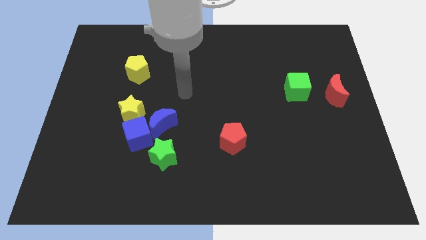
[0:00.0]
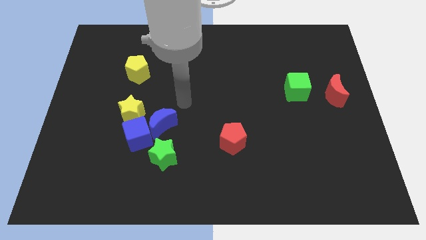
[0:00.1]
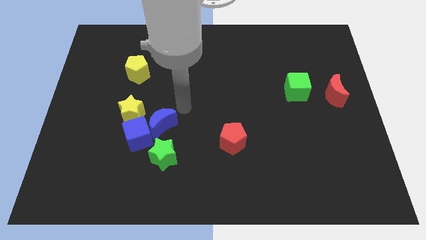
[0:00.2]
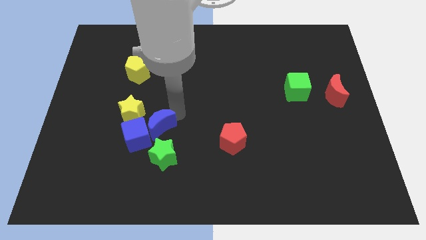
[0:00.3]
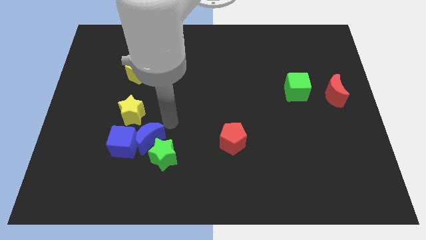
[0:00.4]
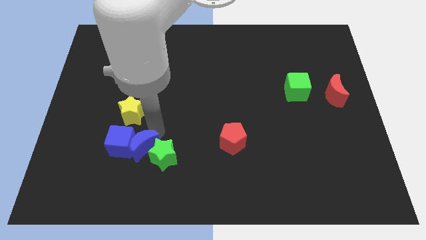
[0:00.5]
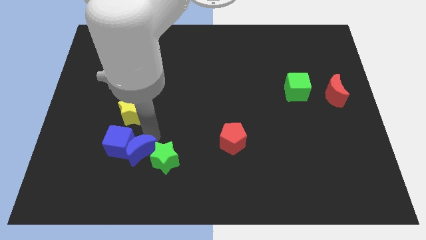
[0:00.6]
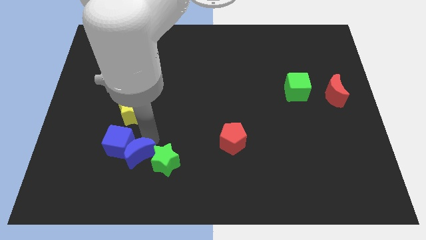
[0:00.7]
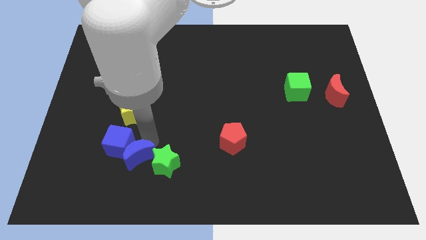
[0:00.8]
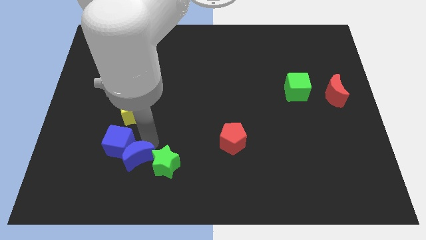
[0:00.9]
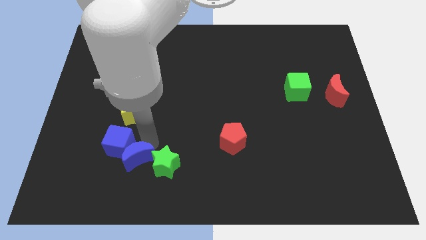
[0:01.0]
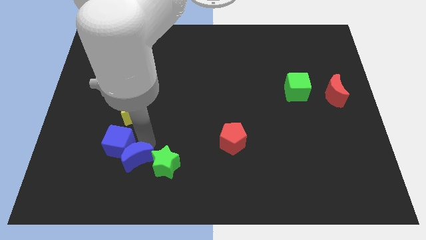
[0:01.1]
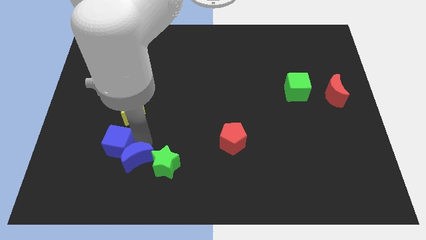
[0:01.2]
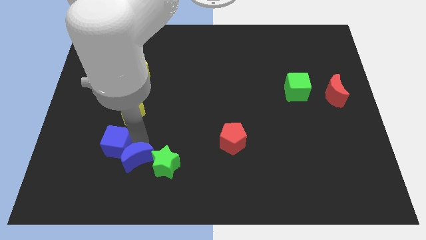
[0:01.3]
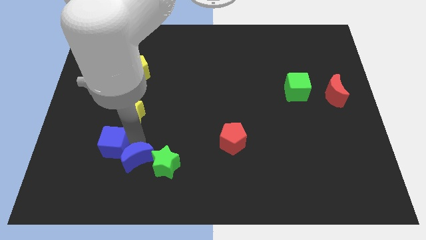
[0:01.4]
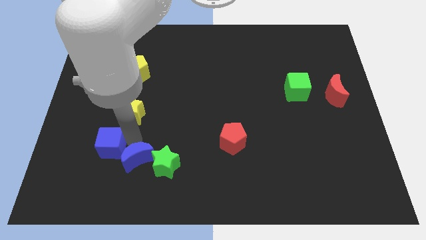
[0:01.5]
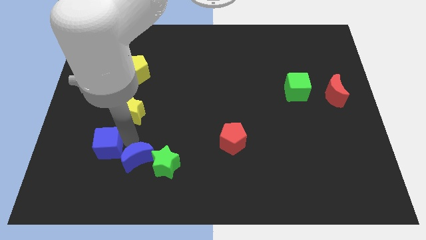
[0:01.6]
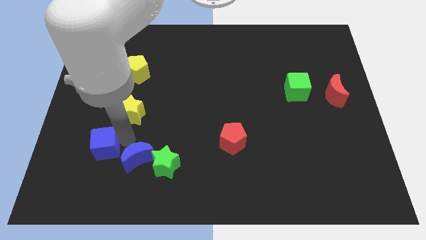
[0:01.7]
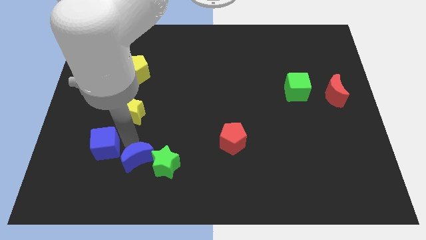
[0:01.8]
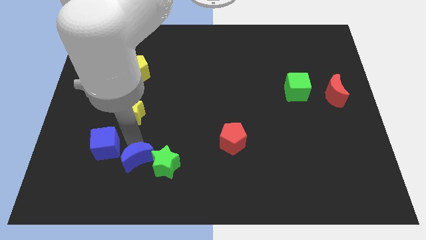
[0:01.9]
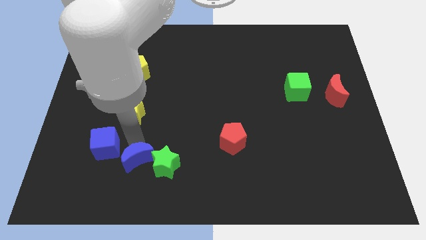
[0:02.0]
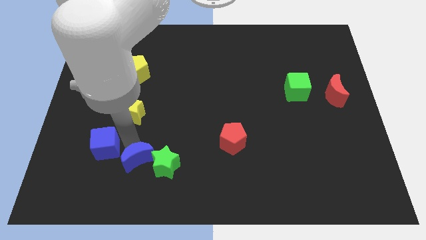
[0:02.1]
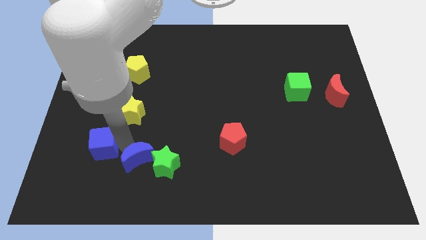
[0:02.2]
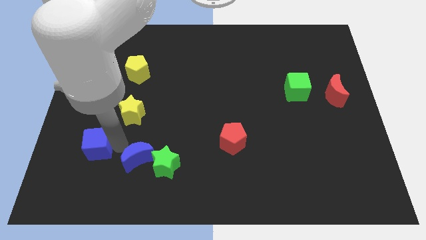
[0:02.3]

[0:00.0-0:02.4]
move the blue cube away from the clump

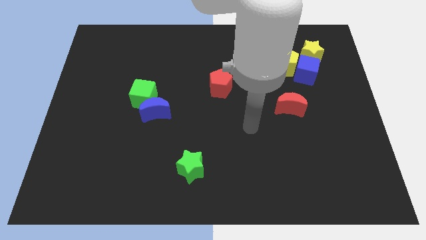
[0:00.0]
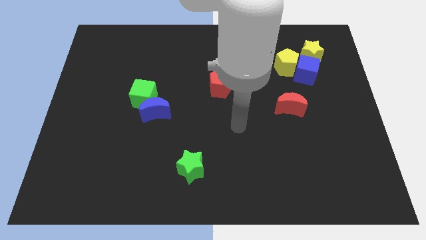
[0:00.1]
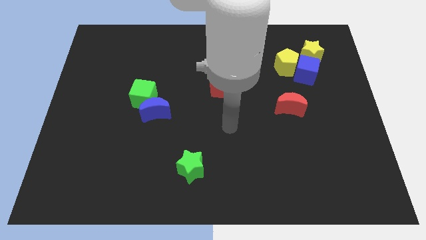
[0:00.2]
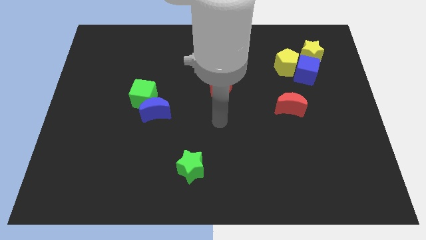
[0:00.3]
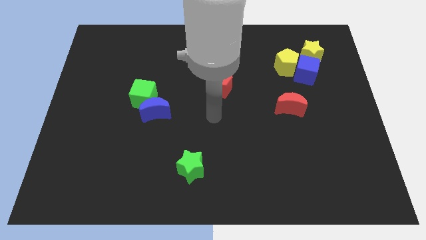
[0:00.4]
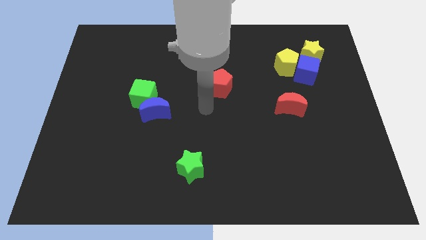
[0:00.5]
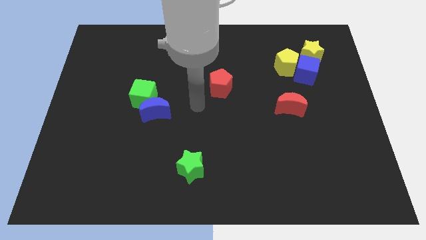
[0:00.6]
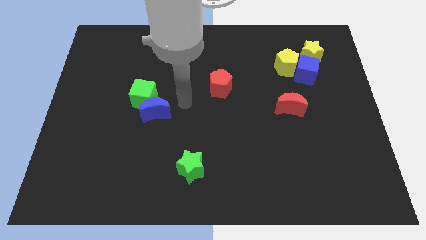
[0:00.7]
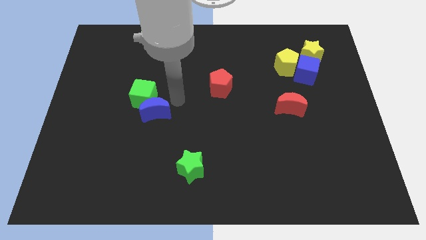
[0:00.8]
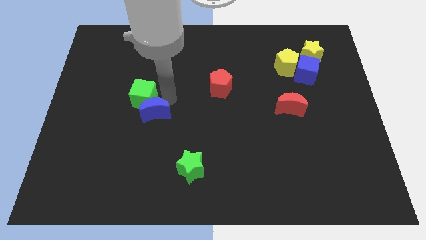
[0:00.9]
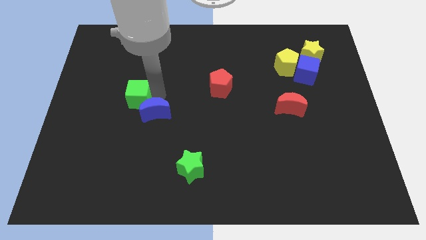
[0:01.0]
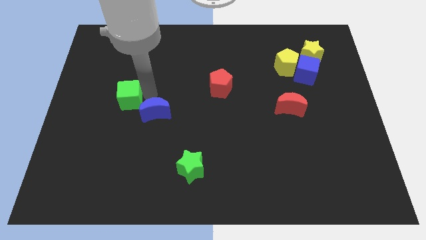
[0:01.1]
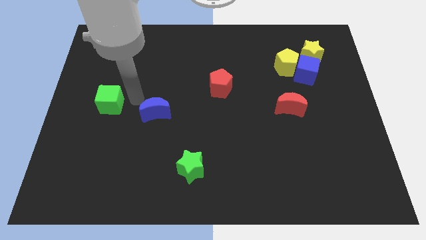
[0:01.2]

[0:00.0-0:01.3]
pull the blue moon apart from the green cube

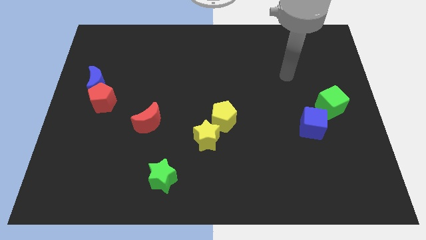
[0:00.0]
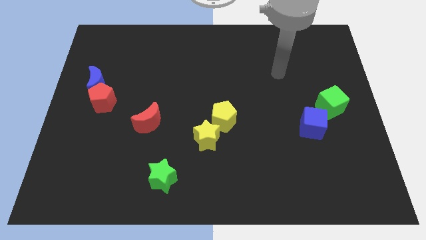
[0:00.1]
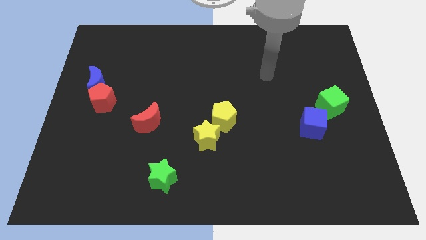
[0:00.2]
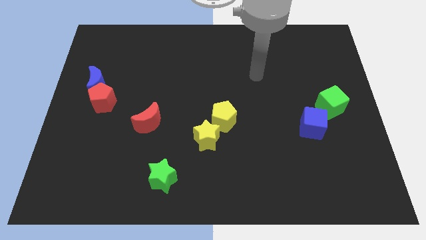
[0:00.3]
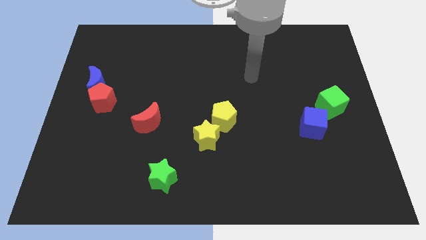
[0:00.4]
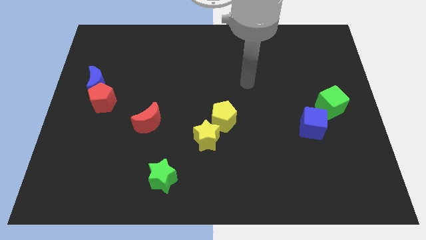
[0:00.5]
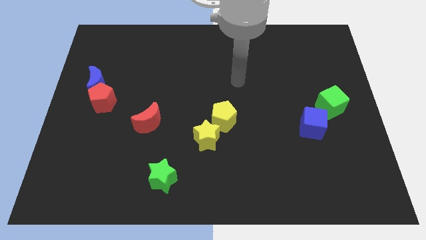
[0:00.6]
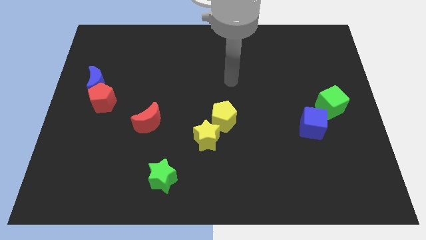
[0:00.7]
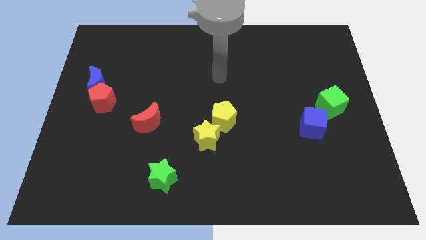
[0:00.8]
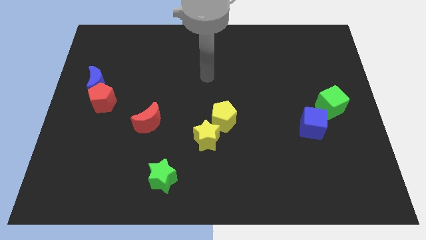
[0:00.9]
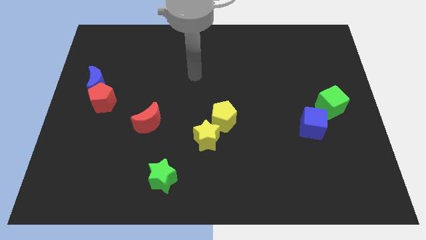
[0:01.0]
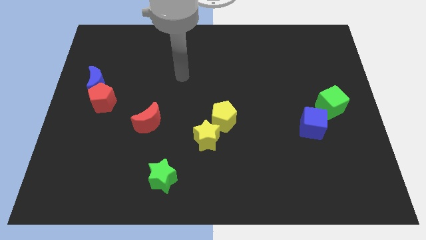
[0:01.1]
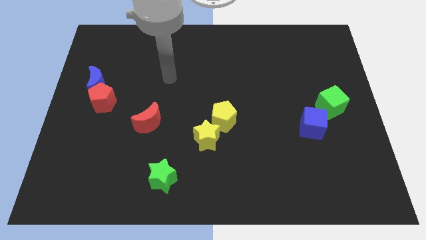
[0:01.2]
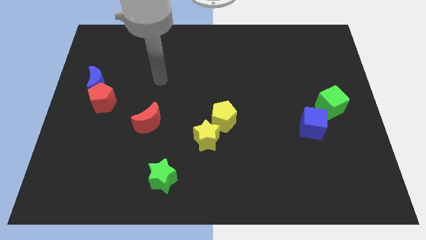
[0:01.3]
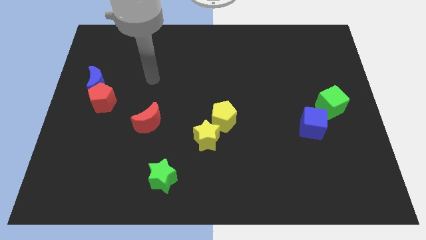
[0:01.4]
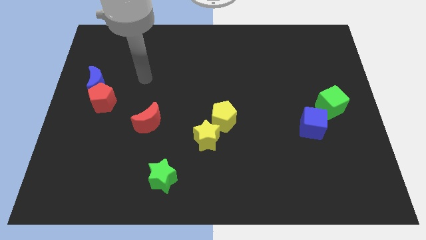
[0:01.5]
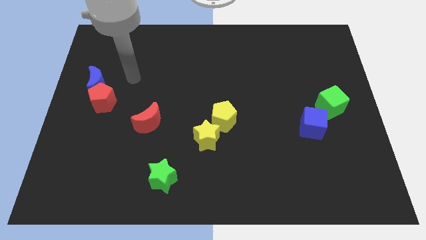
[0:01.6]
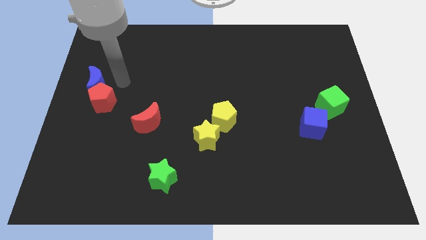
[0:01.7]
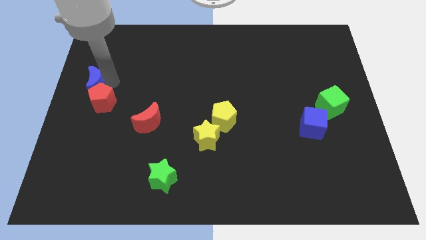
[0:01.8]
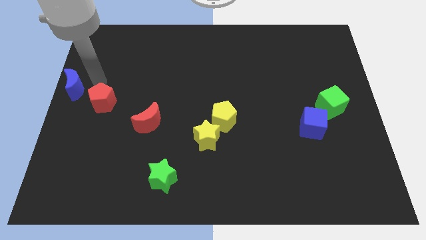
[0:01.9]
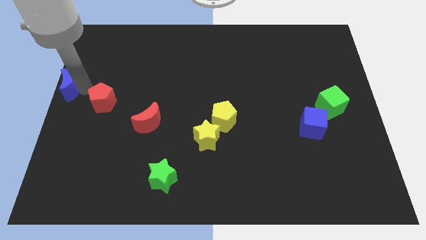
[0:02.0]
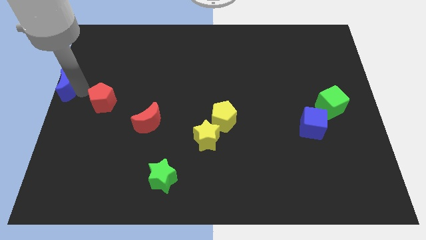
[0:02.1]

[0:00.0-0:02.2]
move the red pentagon away from the blue moon

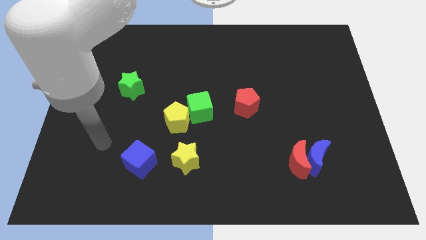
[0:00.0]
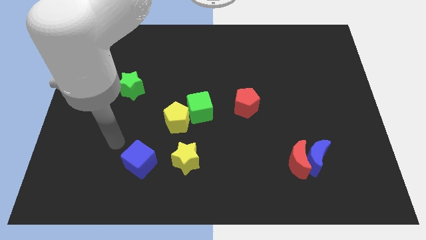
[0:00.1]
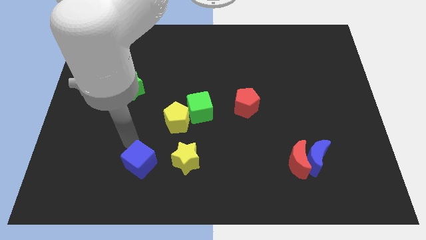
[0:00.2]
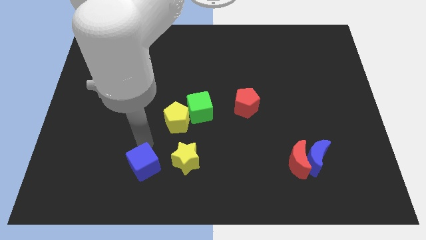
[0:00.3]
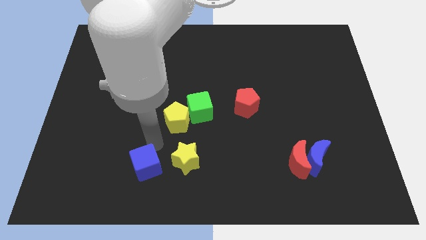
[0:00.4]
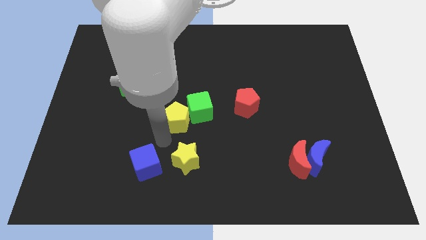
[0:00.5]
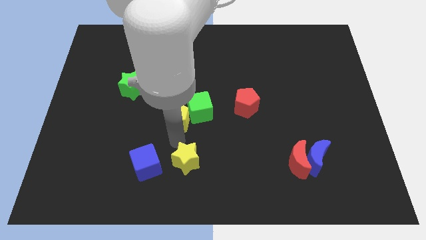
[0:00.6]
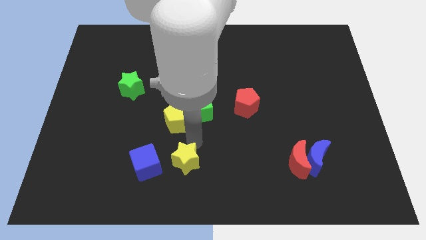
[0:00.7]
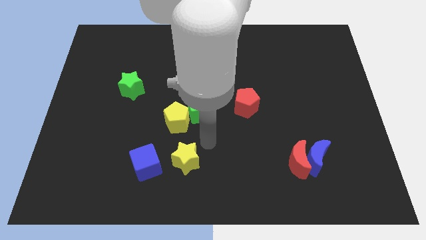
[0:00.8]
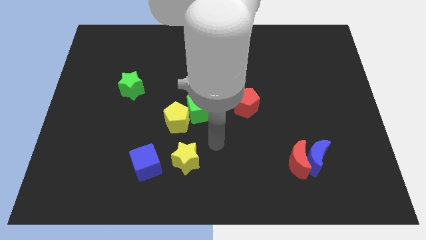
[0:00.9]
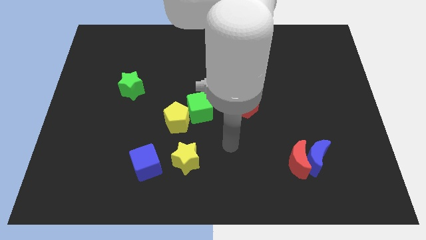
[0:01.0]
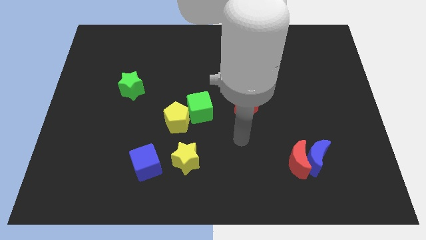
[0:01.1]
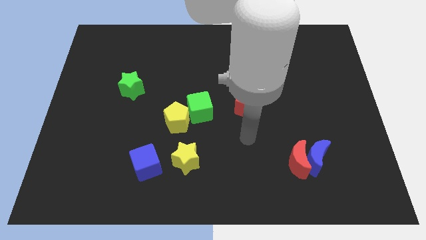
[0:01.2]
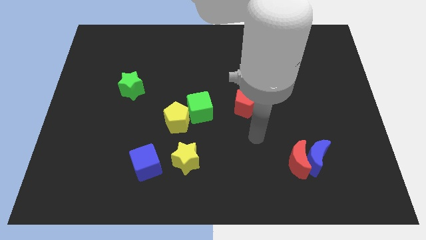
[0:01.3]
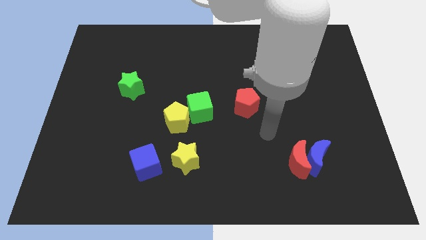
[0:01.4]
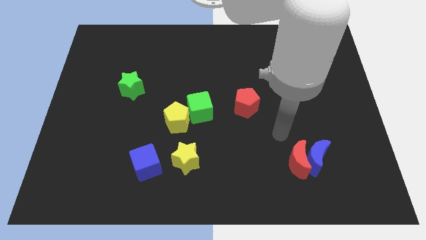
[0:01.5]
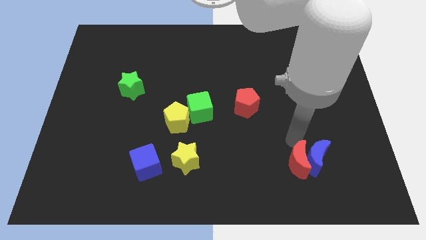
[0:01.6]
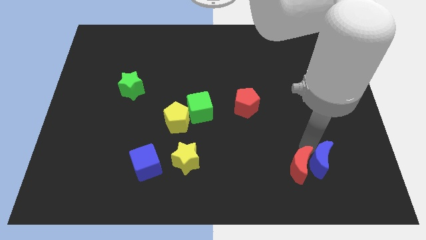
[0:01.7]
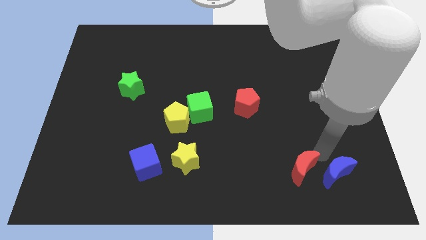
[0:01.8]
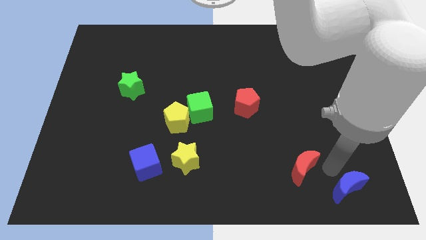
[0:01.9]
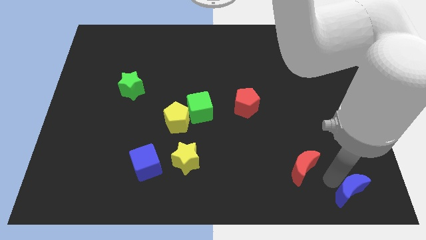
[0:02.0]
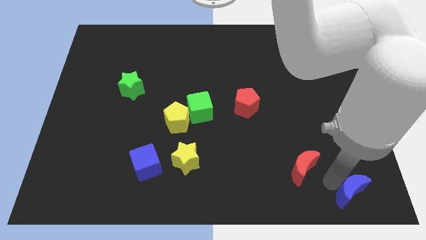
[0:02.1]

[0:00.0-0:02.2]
move the red moon away from the blue moon

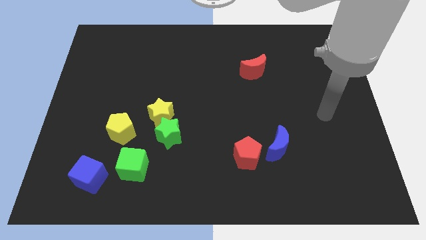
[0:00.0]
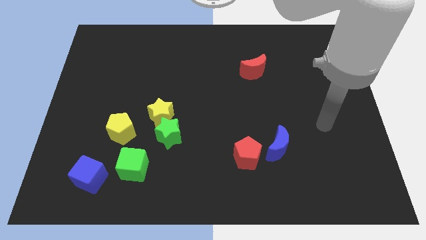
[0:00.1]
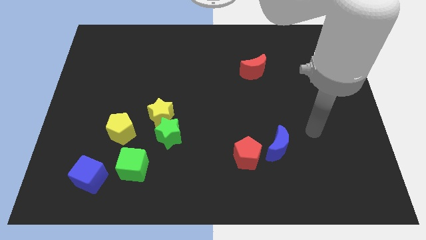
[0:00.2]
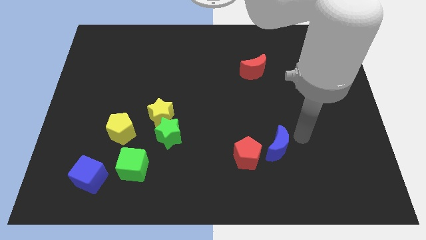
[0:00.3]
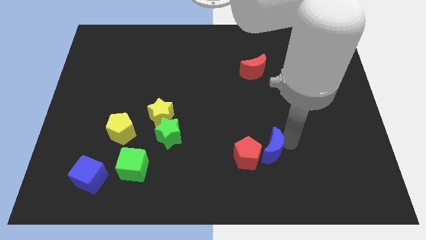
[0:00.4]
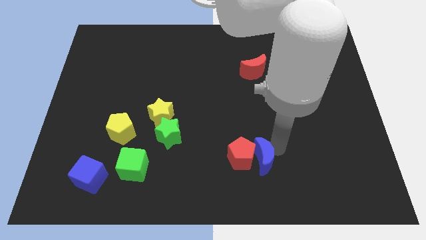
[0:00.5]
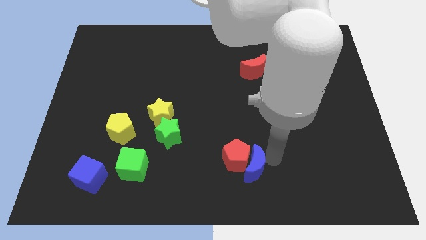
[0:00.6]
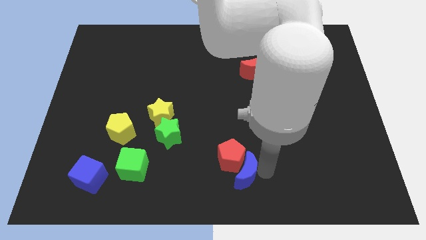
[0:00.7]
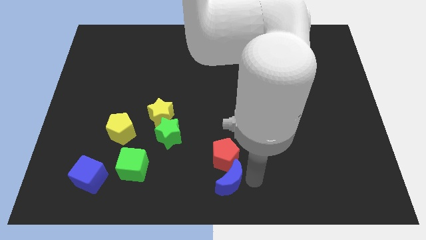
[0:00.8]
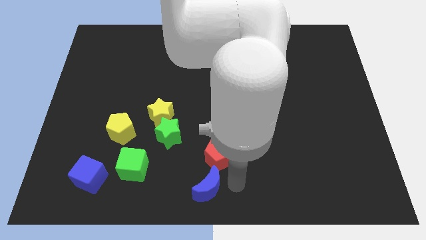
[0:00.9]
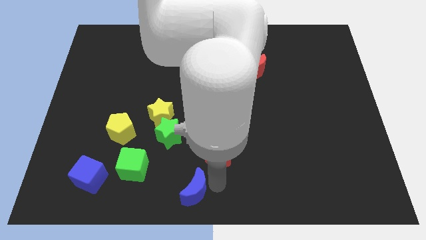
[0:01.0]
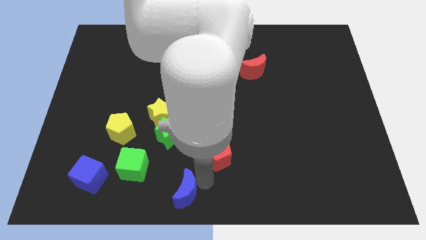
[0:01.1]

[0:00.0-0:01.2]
separate the red pentagon from the blue moon
